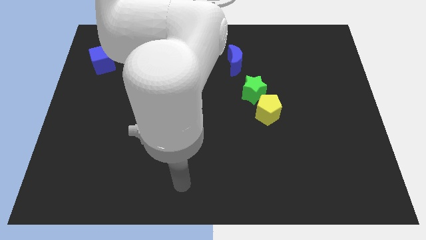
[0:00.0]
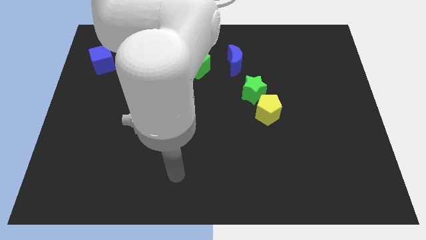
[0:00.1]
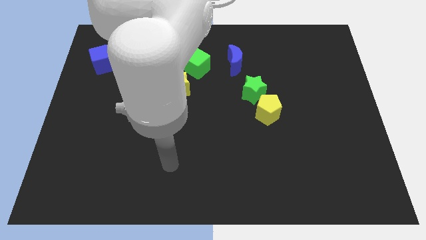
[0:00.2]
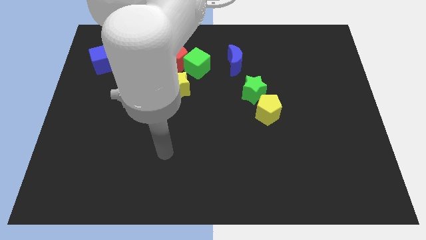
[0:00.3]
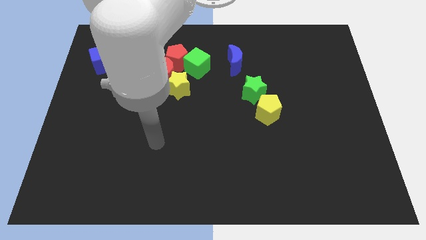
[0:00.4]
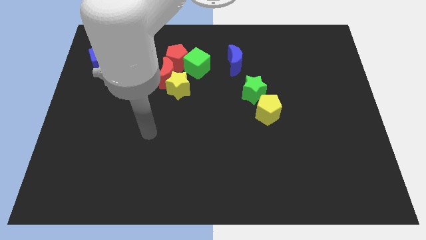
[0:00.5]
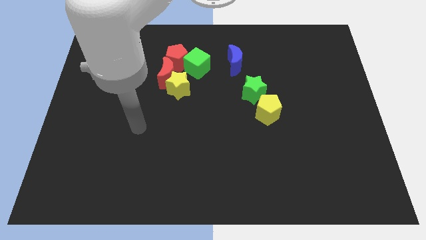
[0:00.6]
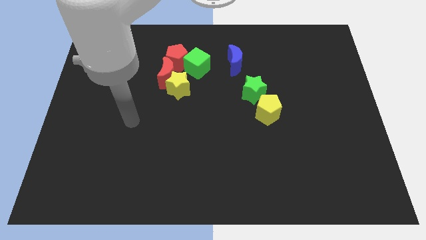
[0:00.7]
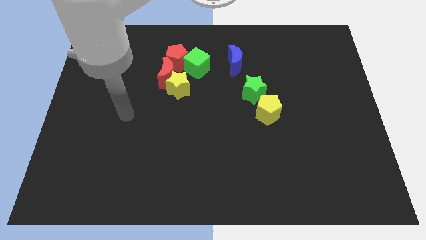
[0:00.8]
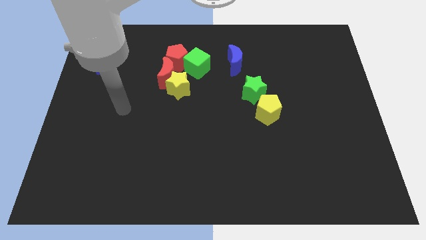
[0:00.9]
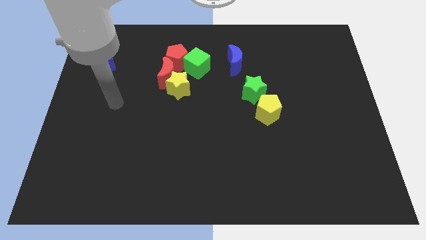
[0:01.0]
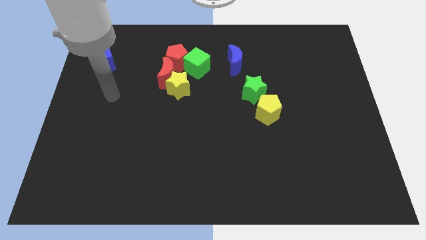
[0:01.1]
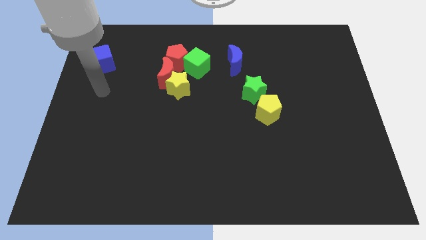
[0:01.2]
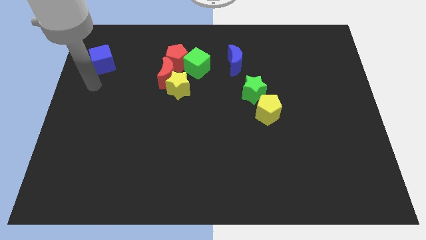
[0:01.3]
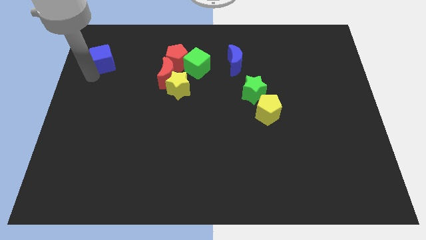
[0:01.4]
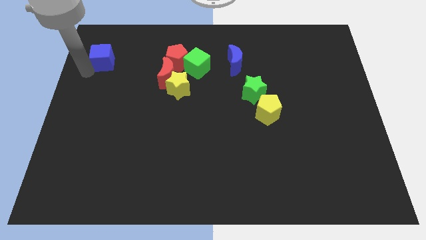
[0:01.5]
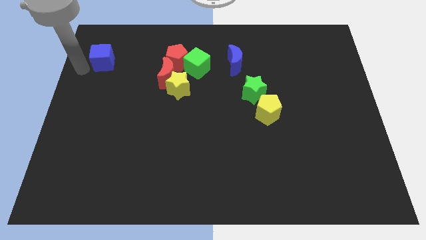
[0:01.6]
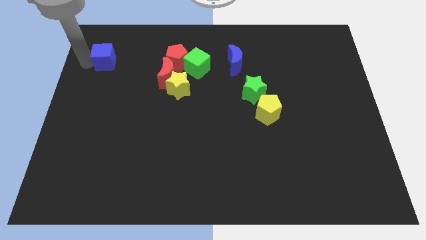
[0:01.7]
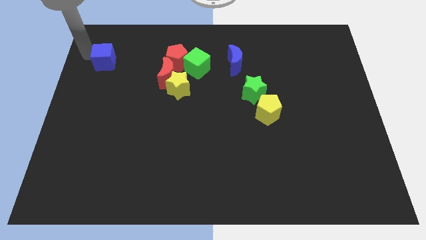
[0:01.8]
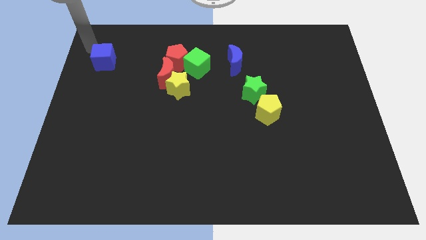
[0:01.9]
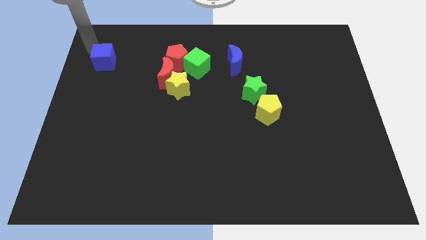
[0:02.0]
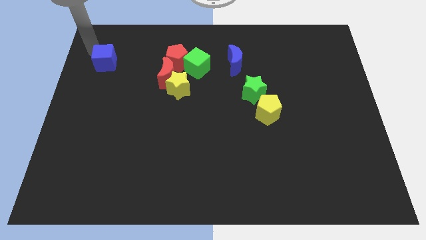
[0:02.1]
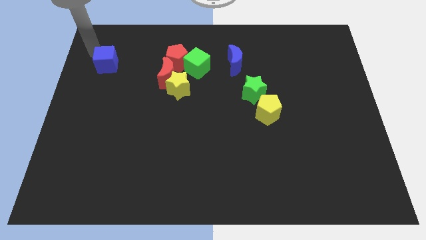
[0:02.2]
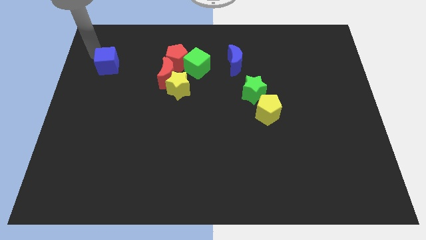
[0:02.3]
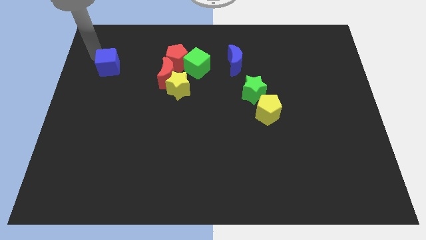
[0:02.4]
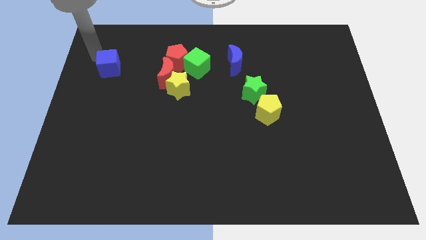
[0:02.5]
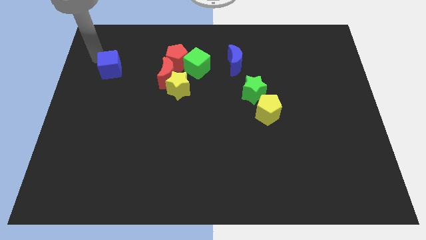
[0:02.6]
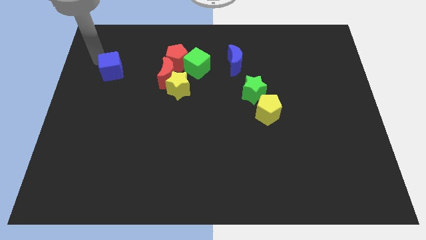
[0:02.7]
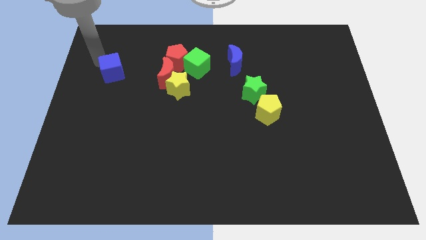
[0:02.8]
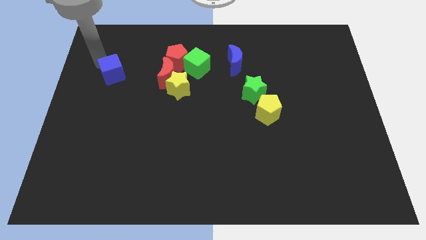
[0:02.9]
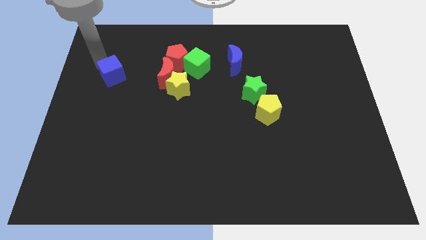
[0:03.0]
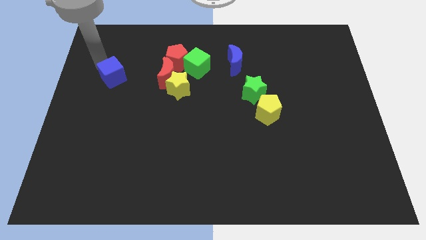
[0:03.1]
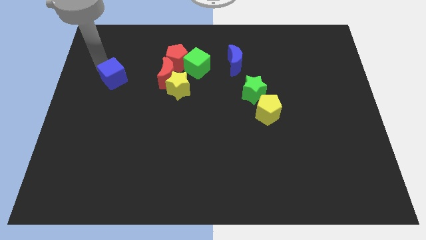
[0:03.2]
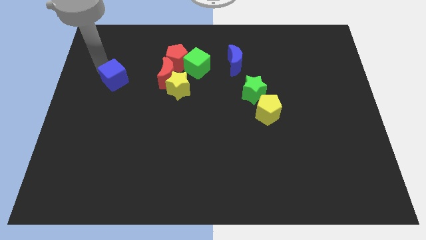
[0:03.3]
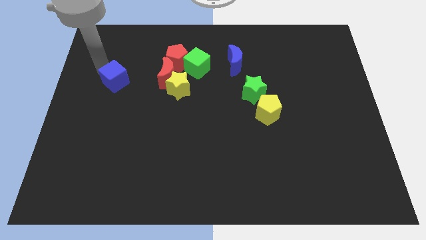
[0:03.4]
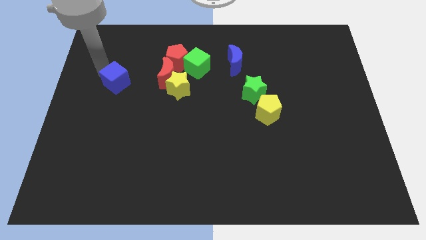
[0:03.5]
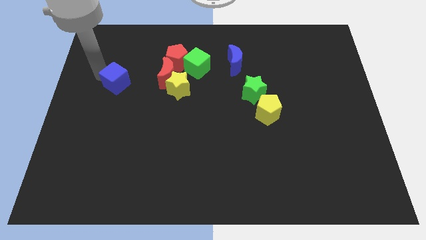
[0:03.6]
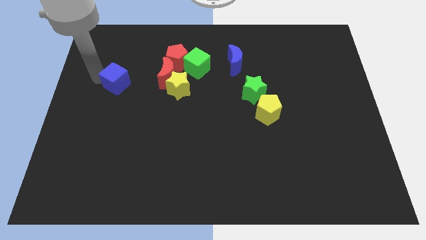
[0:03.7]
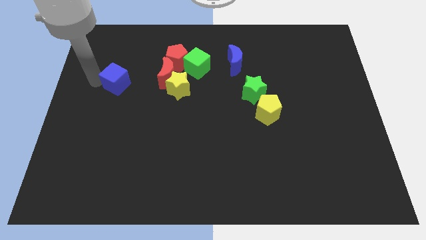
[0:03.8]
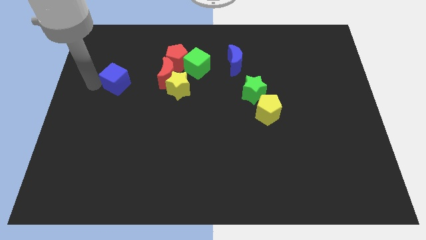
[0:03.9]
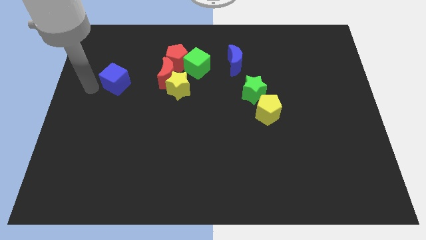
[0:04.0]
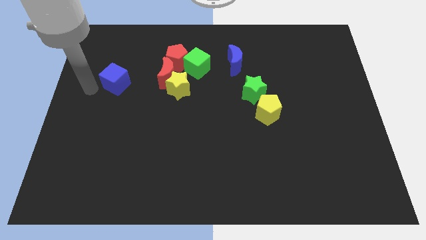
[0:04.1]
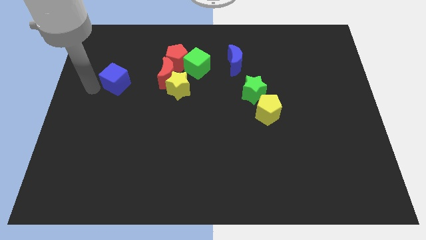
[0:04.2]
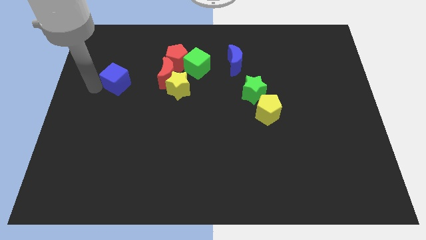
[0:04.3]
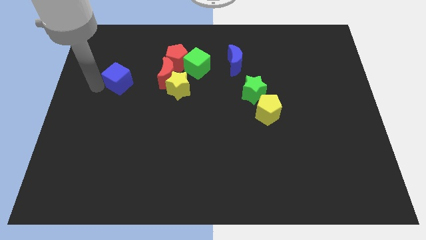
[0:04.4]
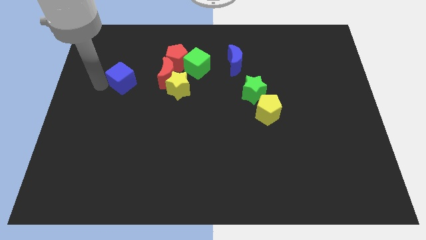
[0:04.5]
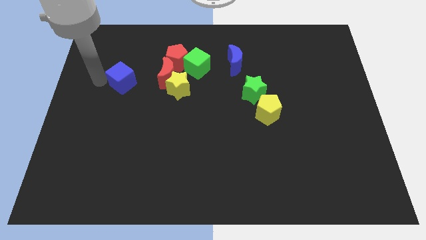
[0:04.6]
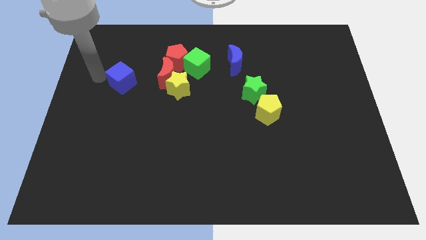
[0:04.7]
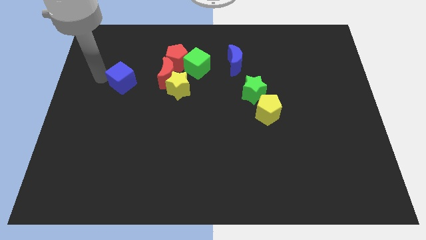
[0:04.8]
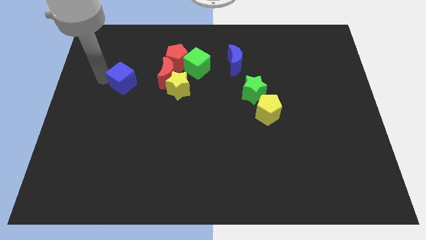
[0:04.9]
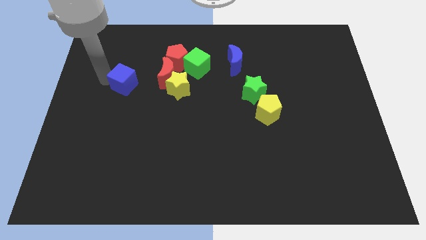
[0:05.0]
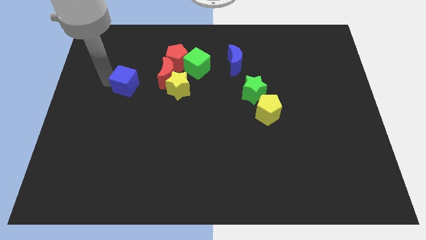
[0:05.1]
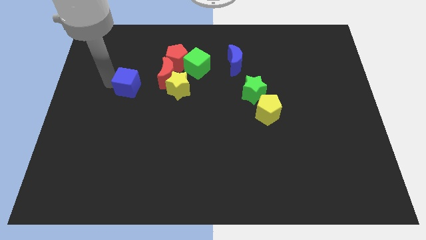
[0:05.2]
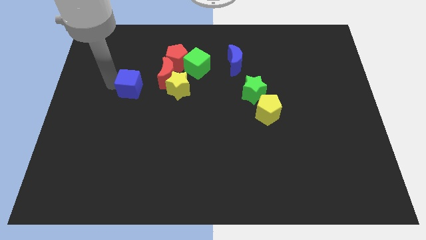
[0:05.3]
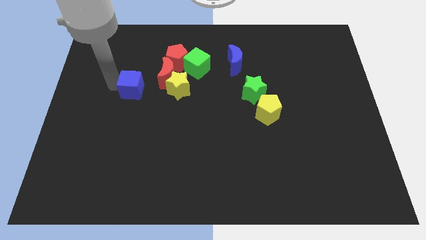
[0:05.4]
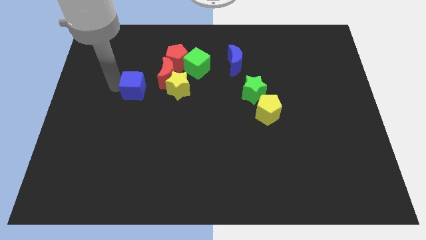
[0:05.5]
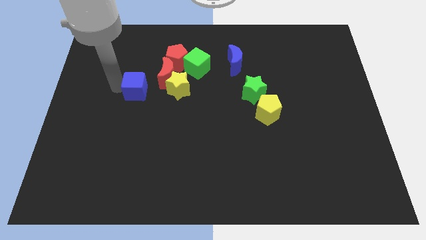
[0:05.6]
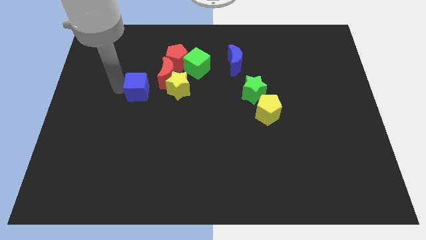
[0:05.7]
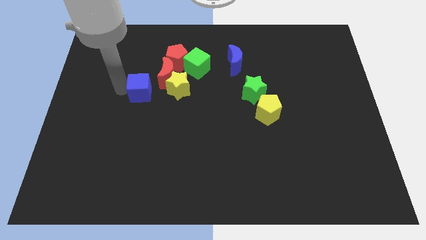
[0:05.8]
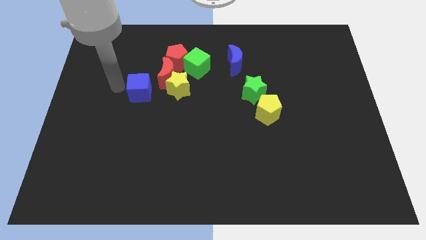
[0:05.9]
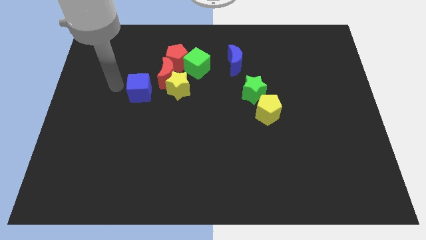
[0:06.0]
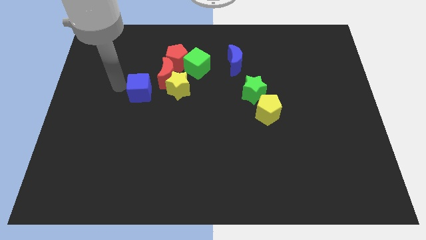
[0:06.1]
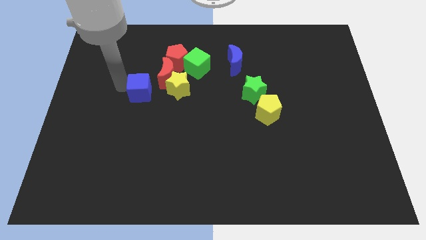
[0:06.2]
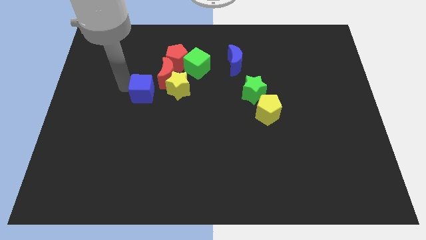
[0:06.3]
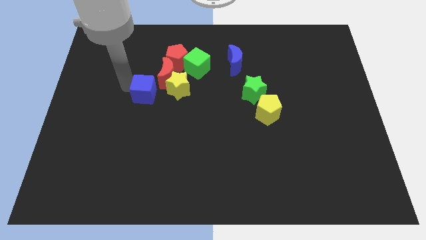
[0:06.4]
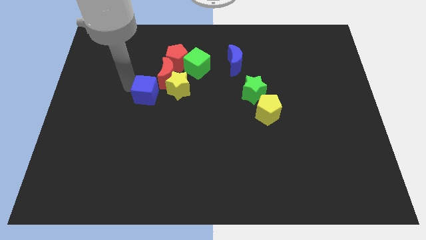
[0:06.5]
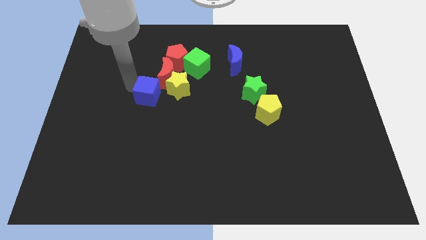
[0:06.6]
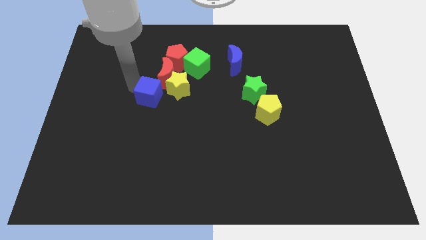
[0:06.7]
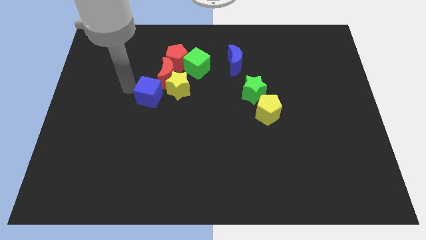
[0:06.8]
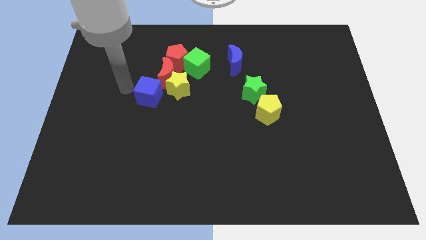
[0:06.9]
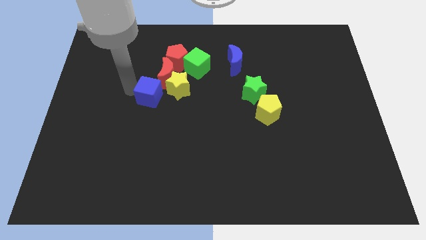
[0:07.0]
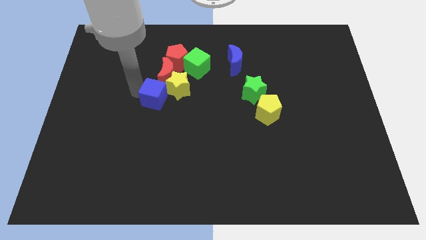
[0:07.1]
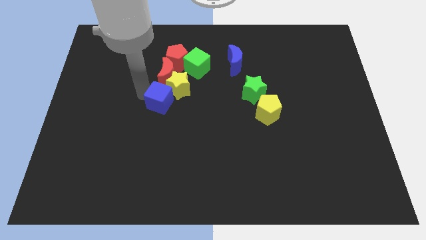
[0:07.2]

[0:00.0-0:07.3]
slide the blue cube to the center

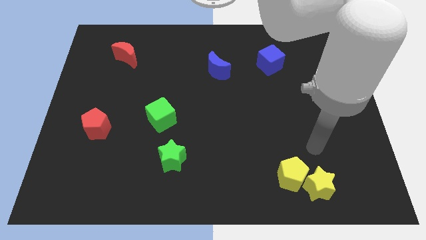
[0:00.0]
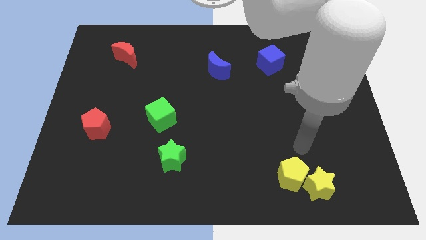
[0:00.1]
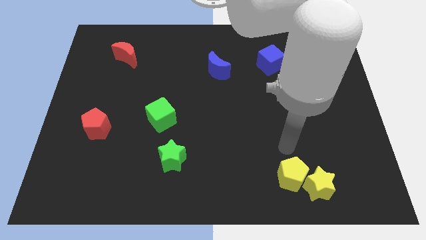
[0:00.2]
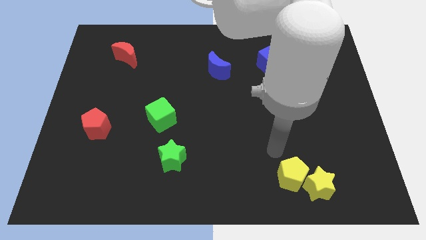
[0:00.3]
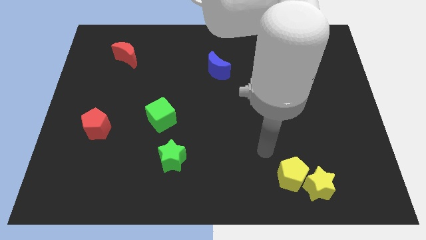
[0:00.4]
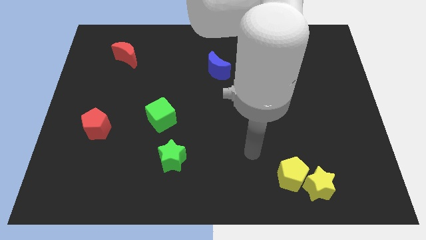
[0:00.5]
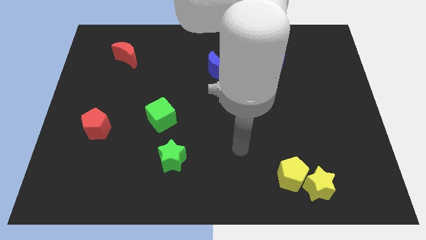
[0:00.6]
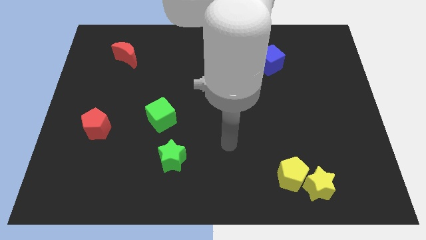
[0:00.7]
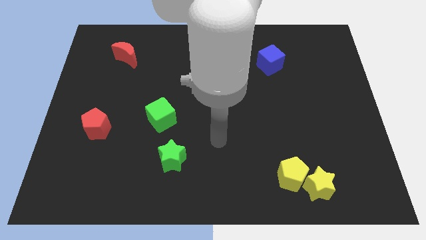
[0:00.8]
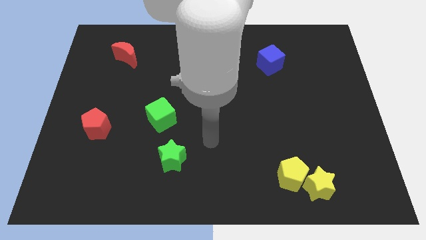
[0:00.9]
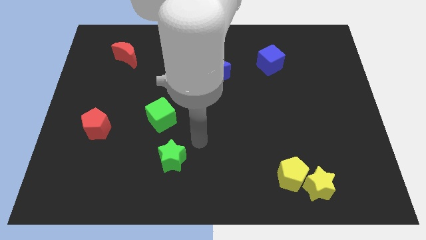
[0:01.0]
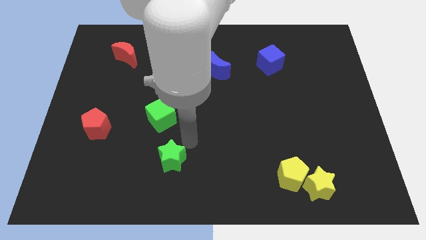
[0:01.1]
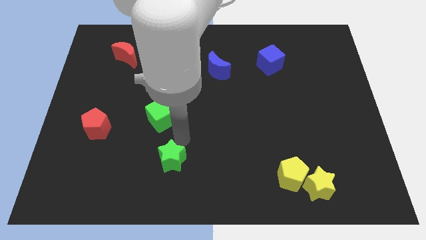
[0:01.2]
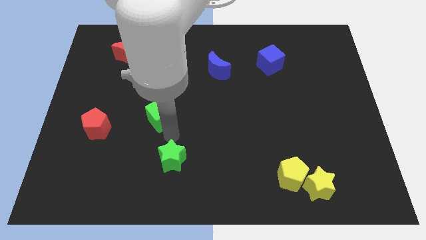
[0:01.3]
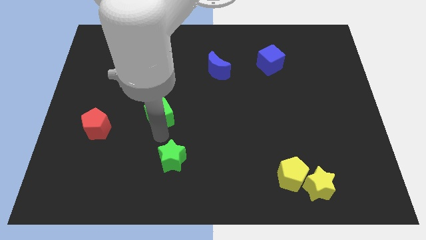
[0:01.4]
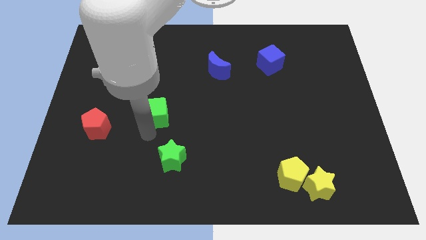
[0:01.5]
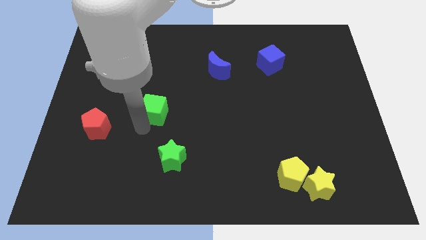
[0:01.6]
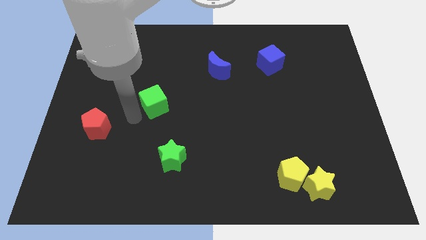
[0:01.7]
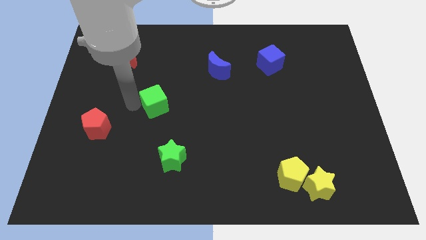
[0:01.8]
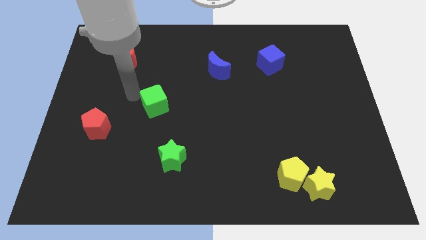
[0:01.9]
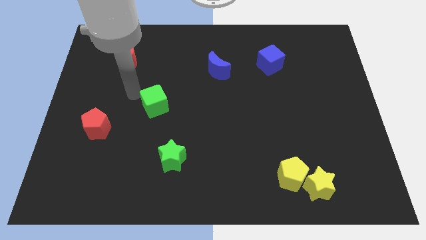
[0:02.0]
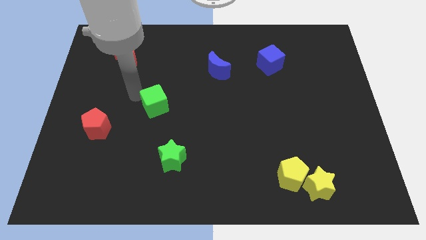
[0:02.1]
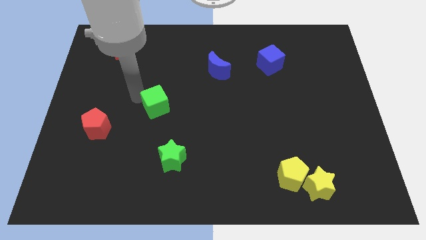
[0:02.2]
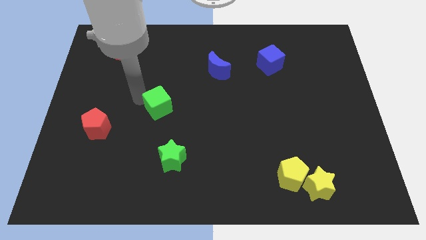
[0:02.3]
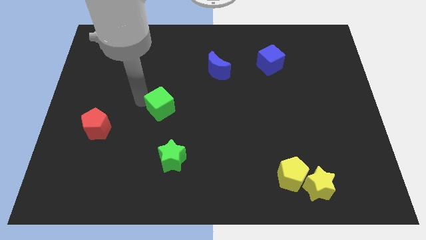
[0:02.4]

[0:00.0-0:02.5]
push the green cube to the middle of the board
